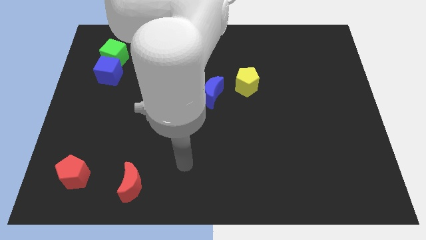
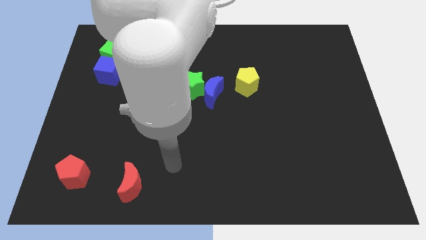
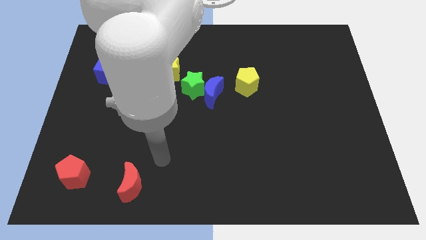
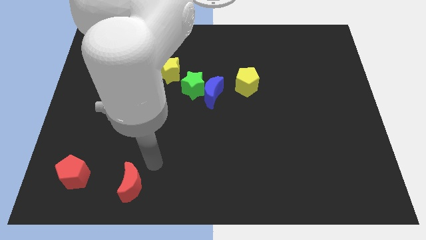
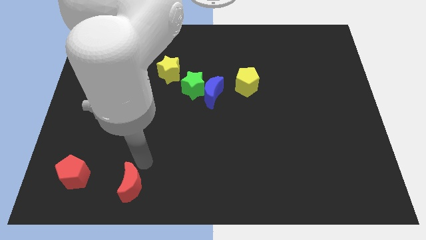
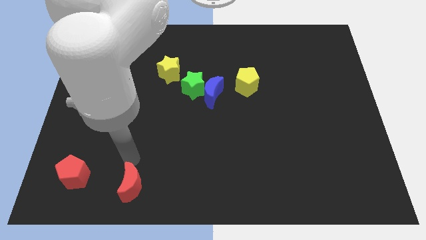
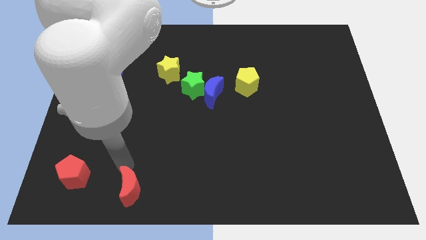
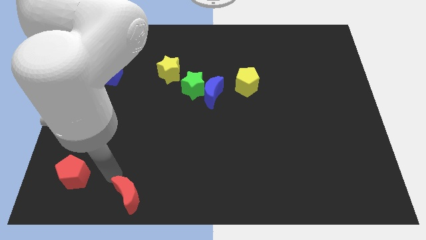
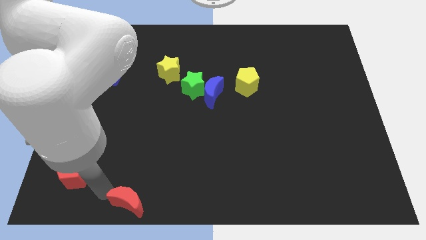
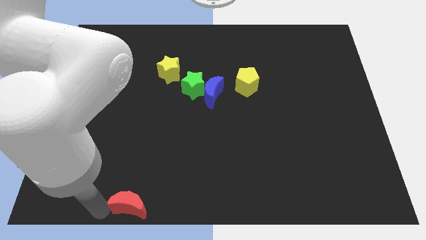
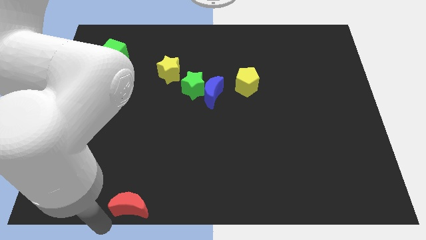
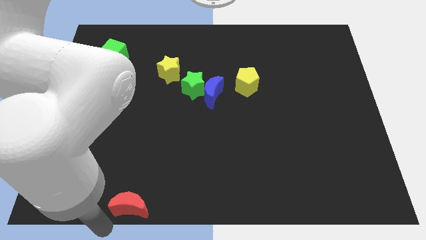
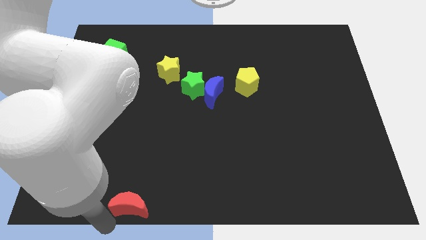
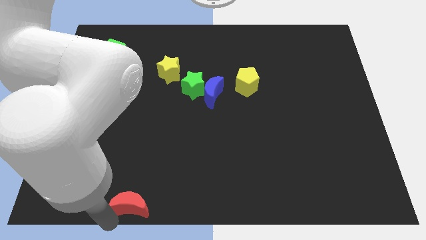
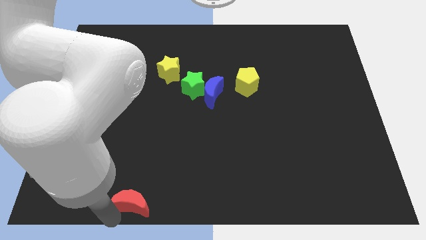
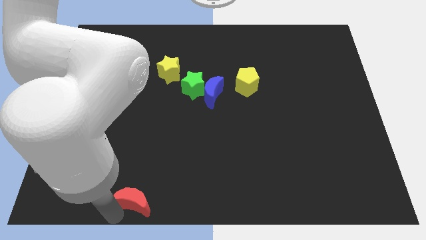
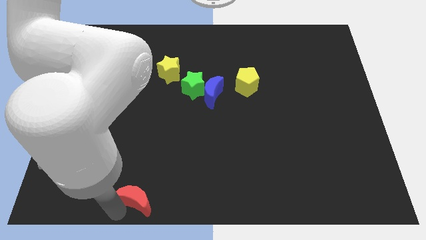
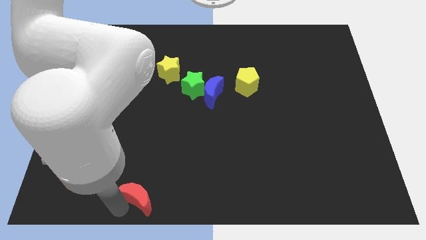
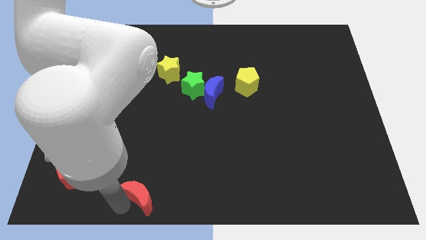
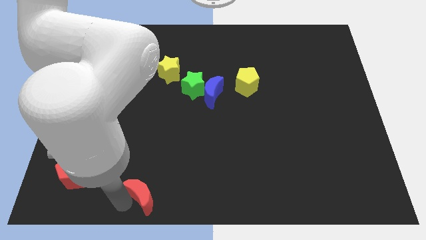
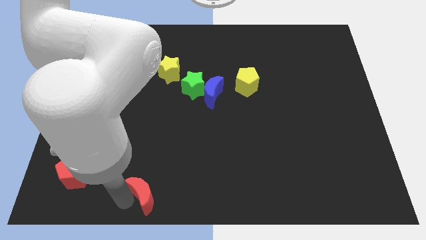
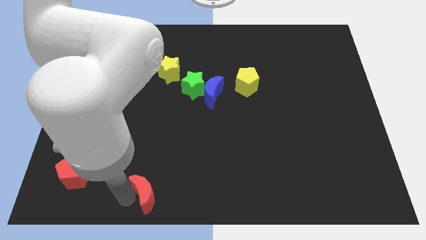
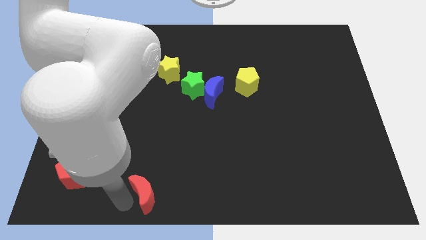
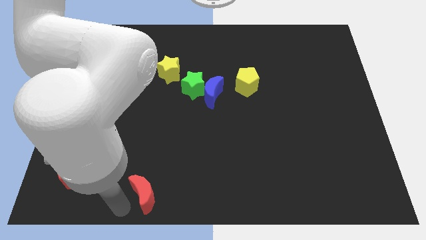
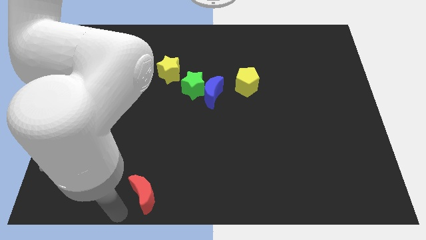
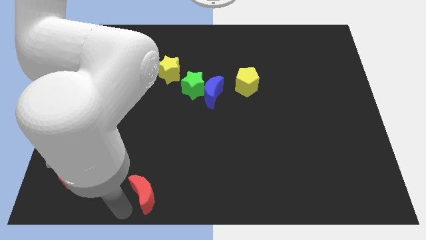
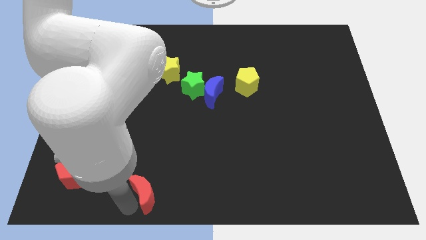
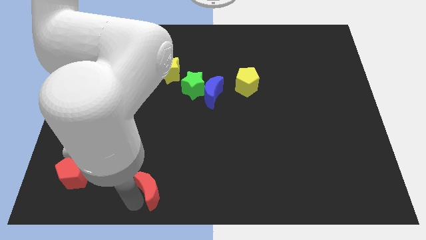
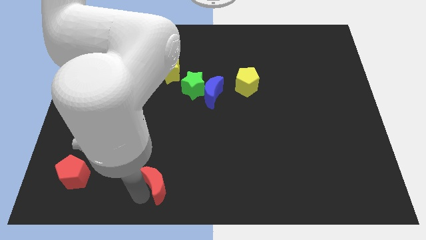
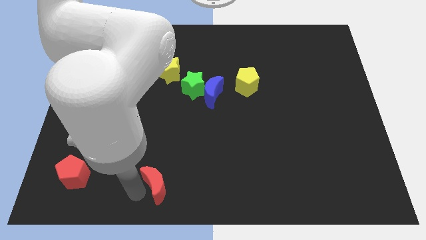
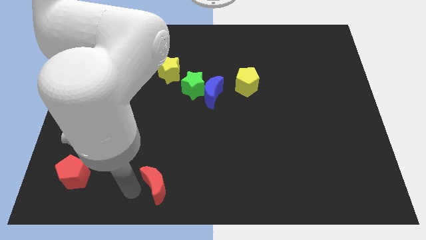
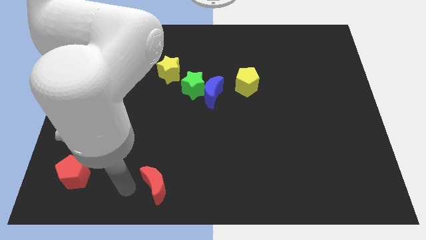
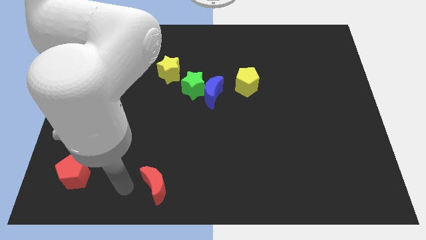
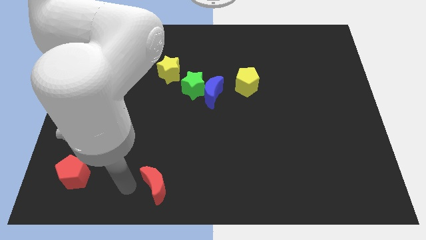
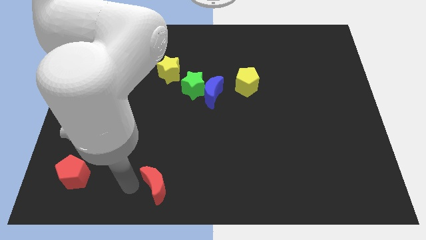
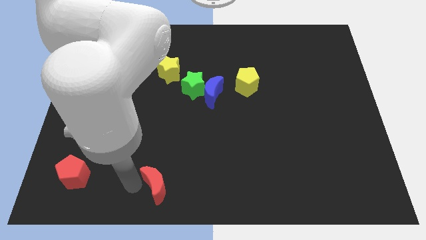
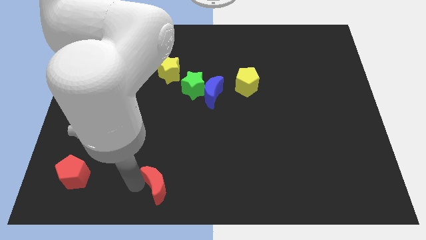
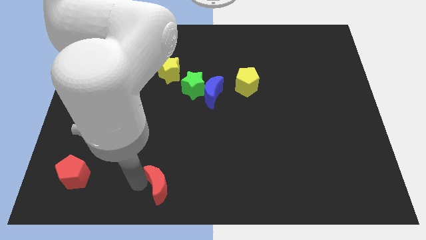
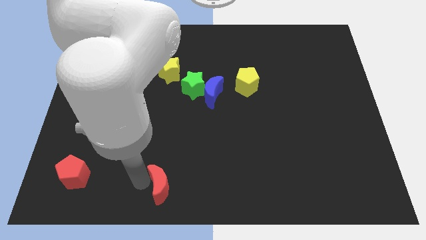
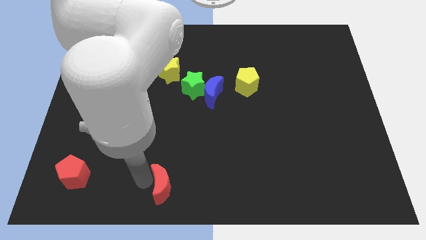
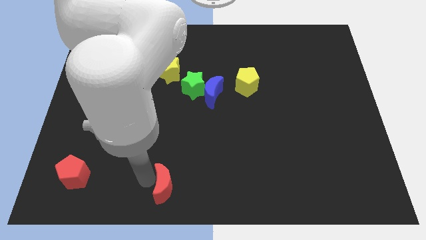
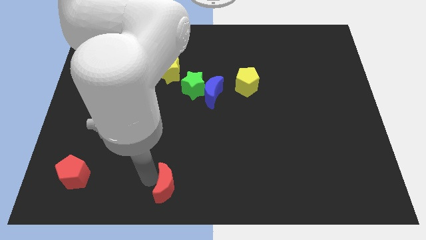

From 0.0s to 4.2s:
slide the red moon slightly right

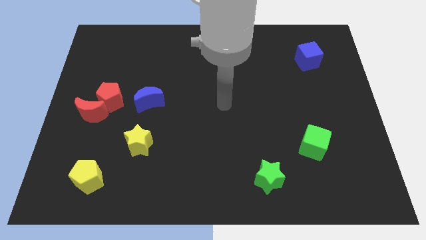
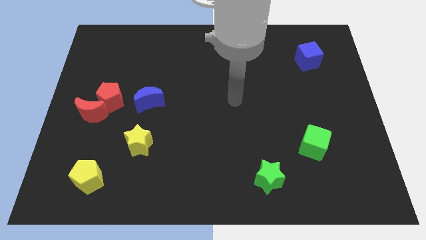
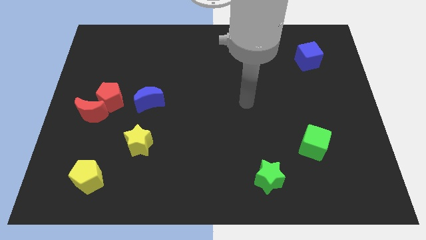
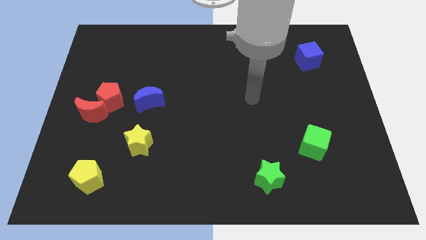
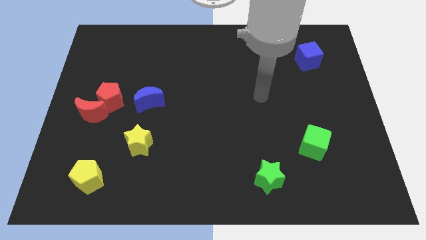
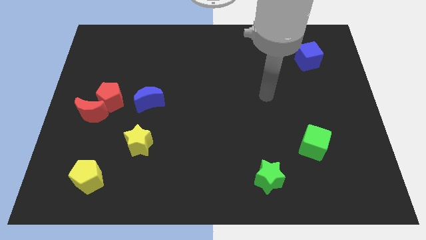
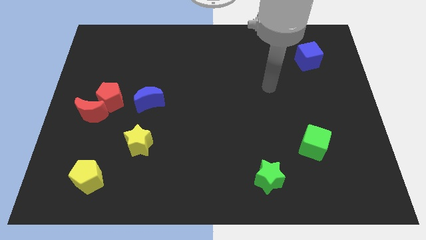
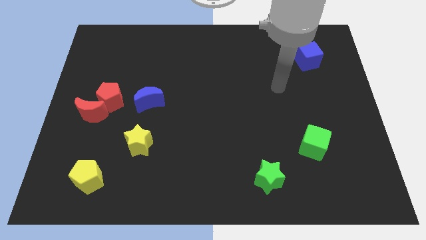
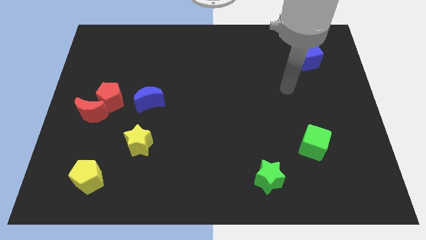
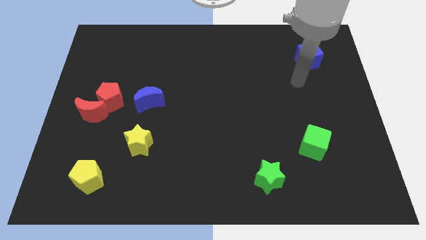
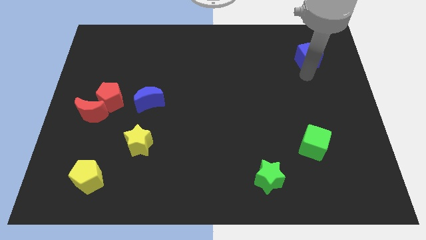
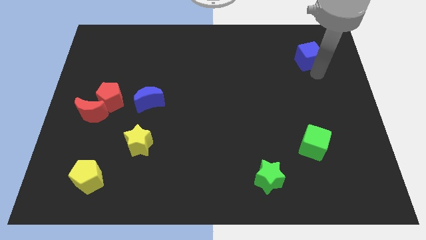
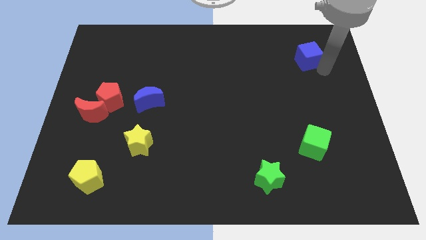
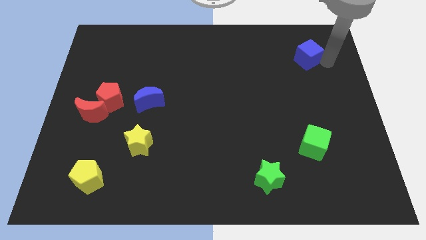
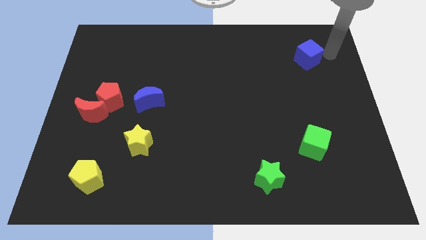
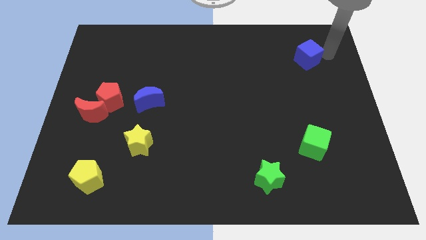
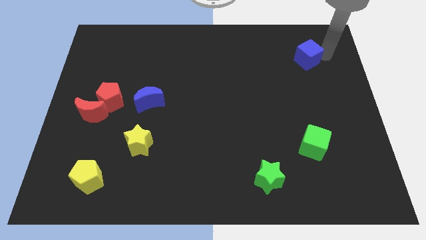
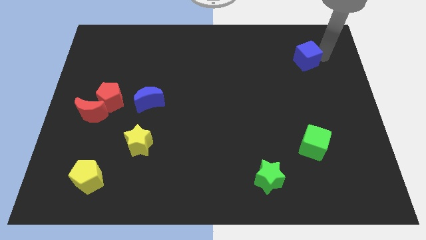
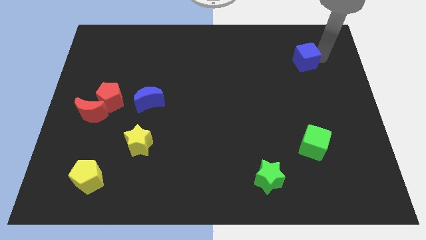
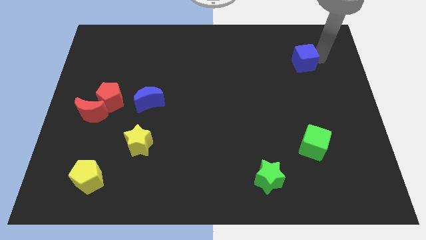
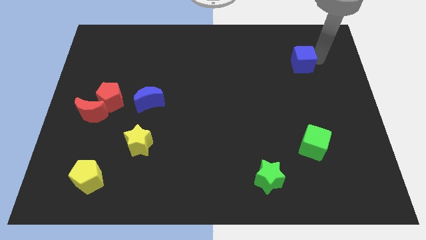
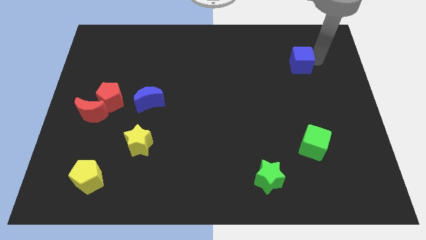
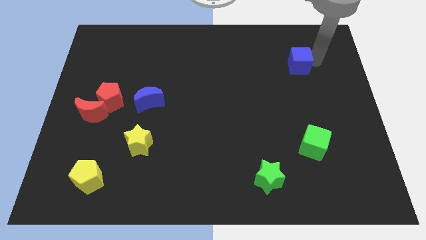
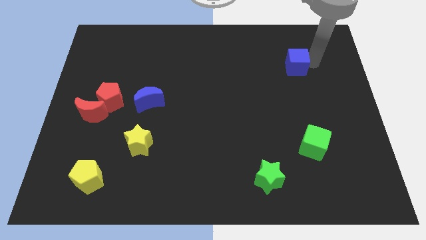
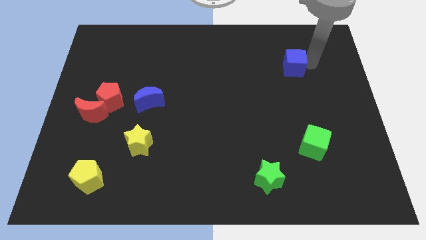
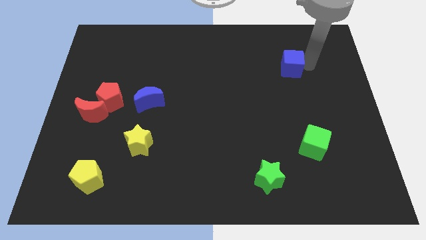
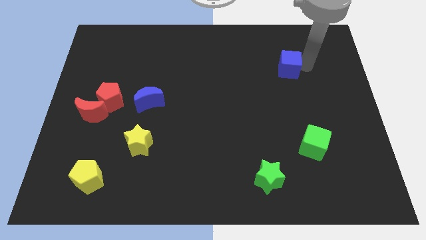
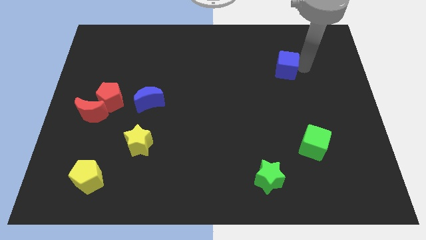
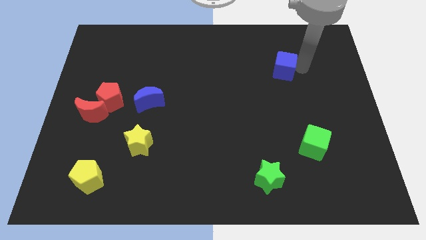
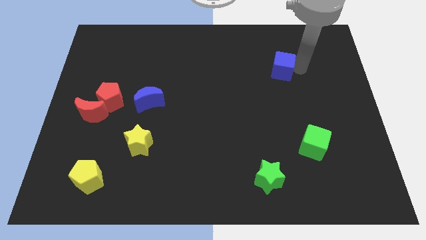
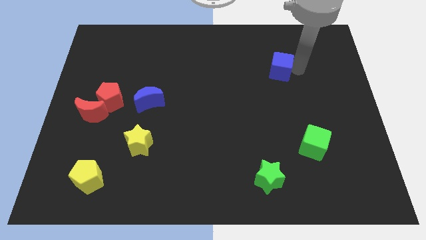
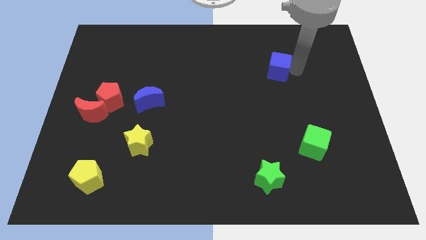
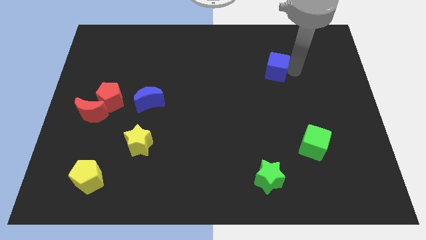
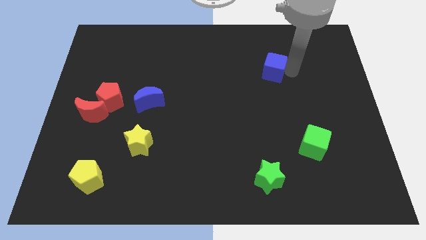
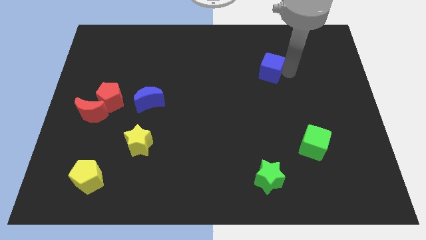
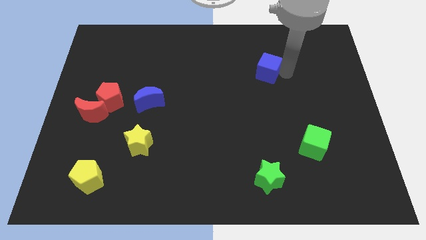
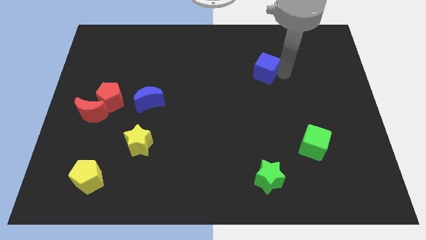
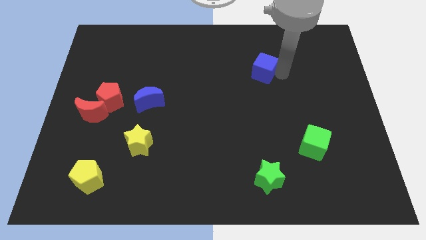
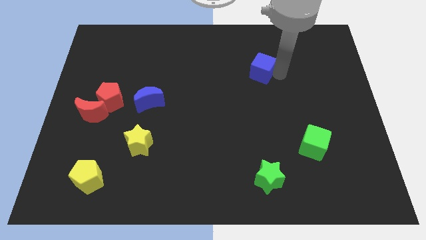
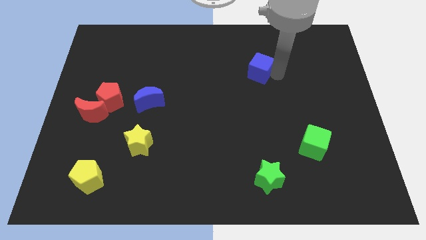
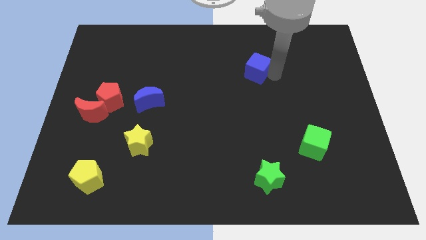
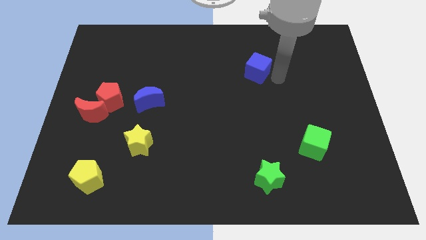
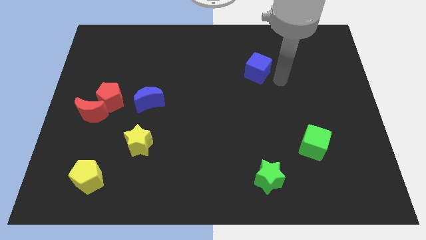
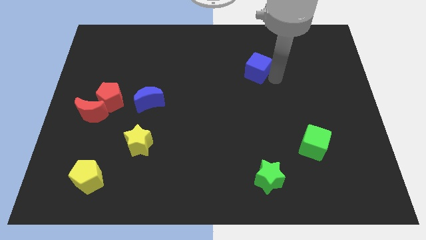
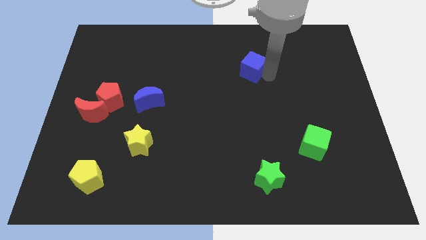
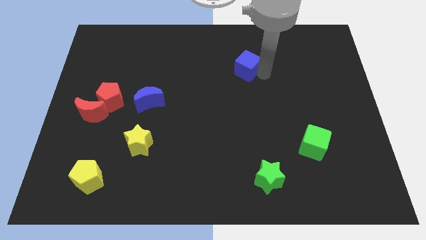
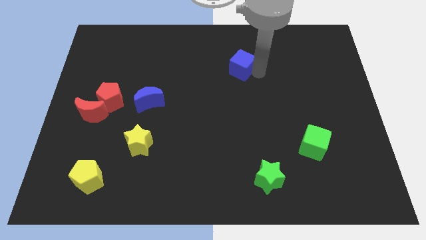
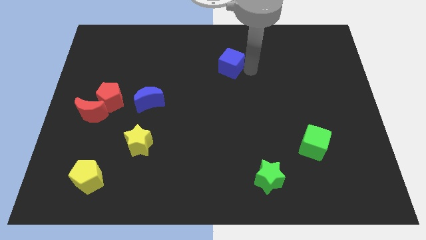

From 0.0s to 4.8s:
push the blue cube left
